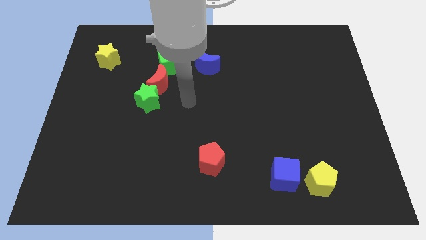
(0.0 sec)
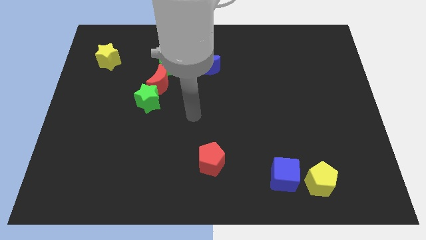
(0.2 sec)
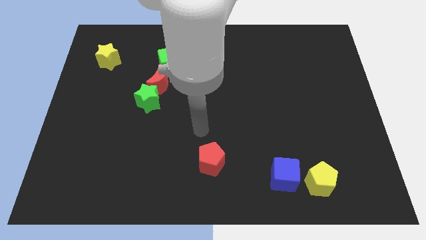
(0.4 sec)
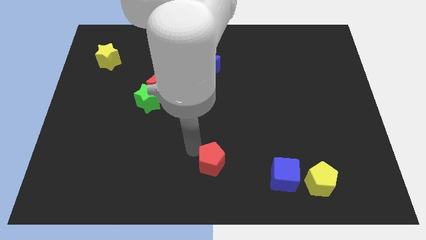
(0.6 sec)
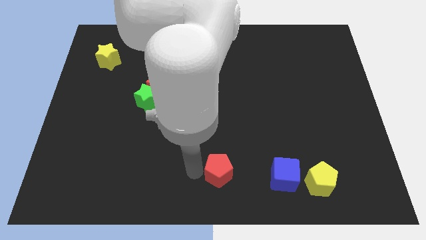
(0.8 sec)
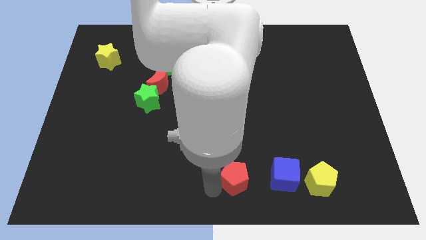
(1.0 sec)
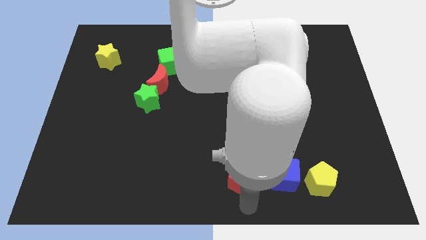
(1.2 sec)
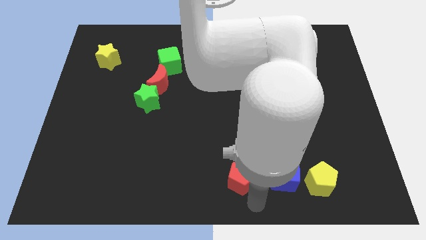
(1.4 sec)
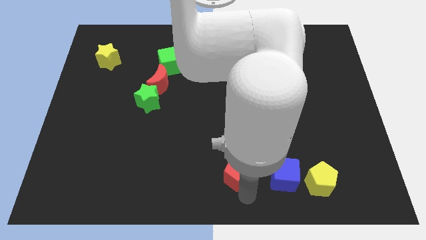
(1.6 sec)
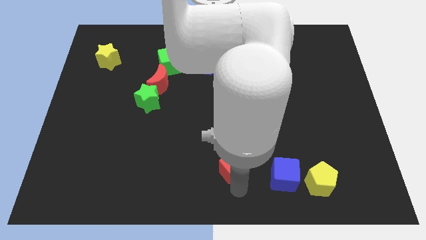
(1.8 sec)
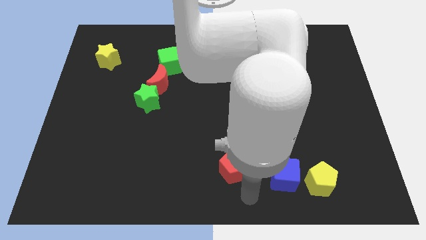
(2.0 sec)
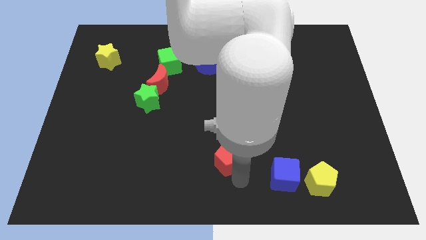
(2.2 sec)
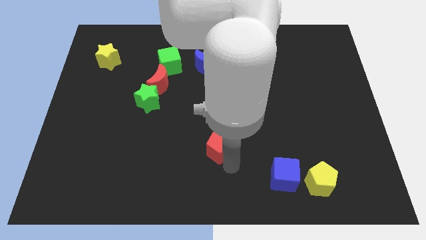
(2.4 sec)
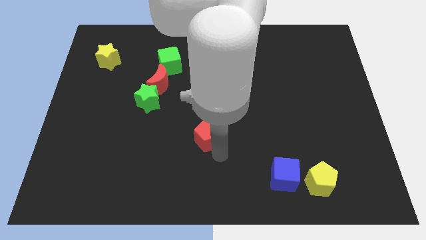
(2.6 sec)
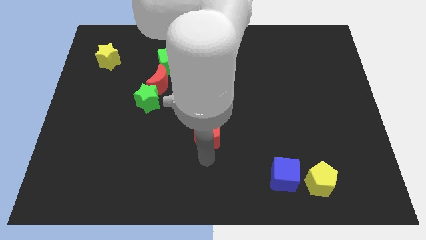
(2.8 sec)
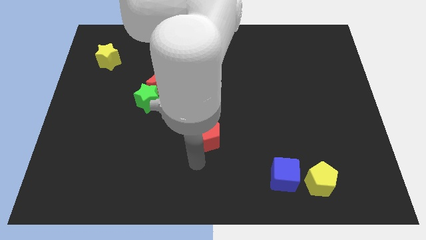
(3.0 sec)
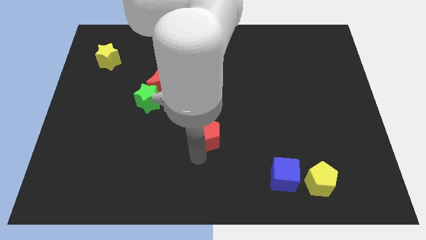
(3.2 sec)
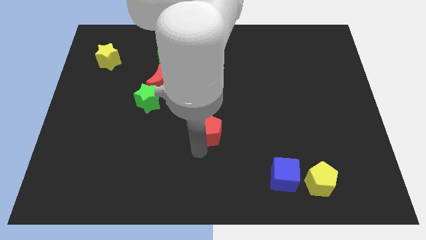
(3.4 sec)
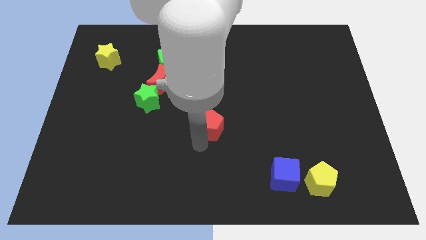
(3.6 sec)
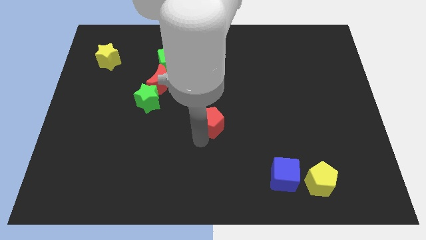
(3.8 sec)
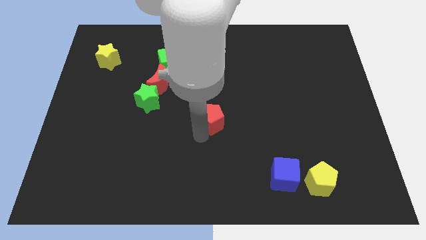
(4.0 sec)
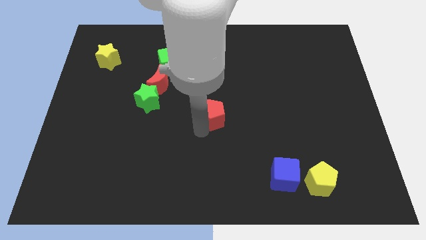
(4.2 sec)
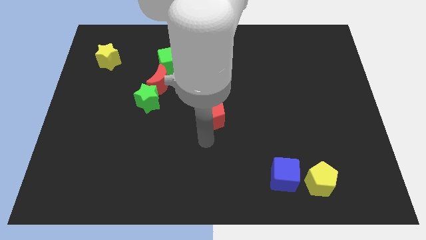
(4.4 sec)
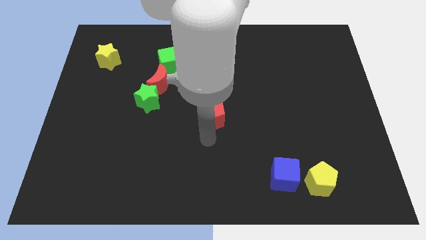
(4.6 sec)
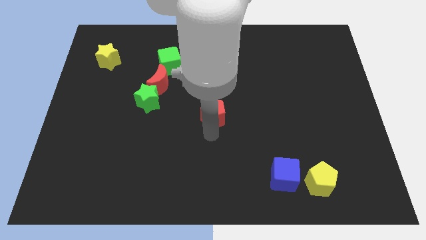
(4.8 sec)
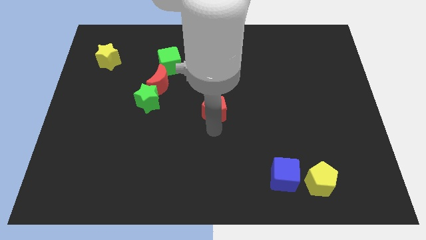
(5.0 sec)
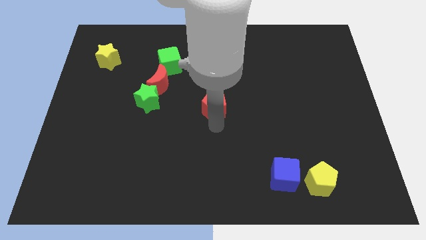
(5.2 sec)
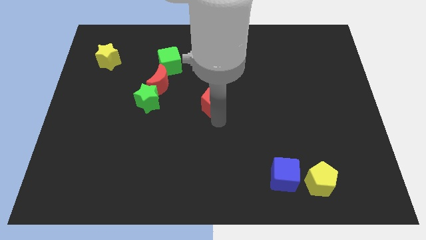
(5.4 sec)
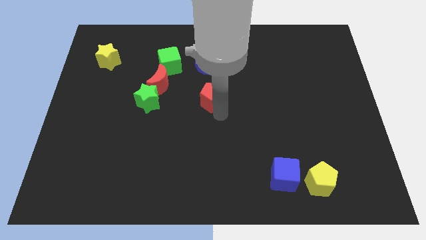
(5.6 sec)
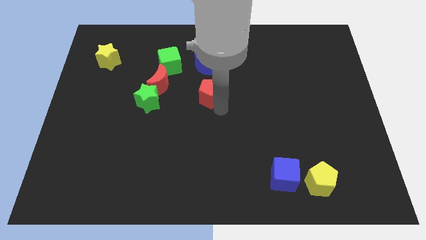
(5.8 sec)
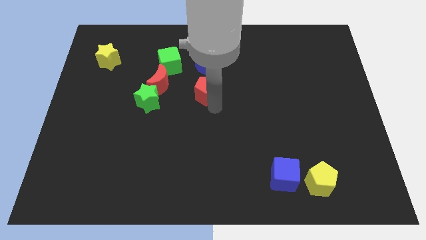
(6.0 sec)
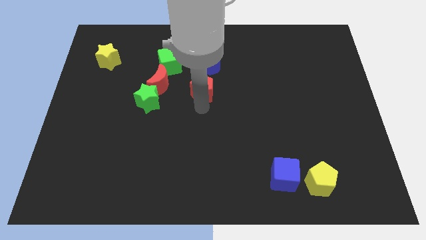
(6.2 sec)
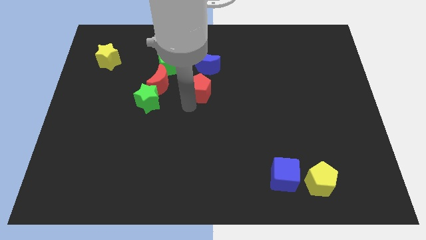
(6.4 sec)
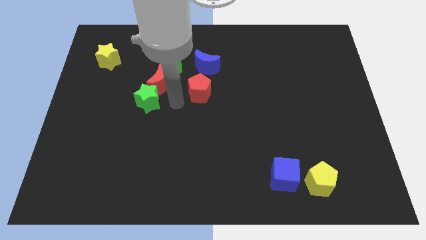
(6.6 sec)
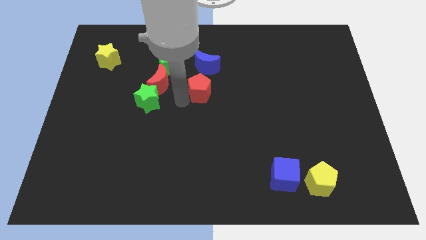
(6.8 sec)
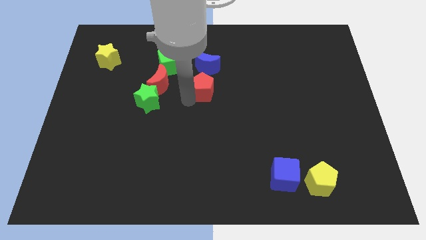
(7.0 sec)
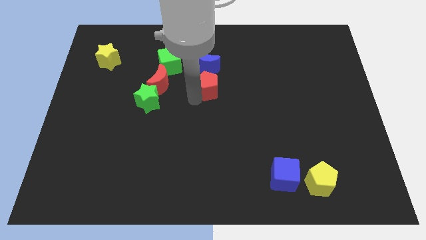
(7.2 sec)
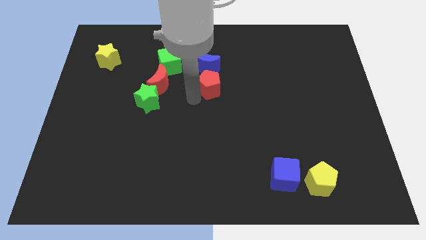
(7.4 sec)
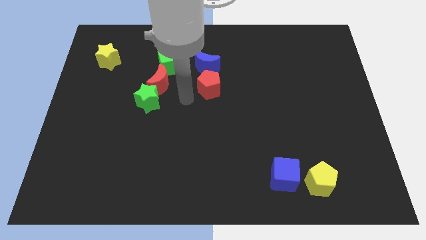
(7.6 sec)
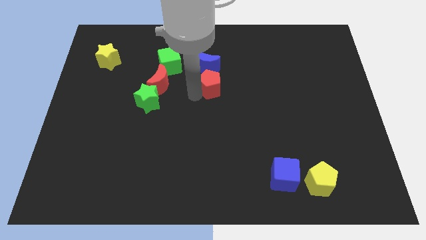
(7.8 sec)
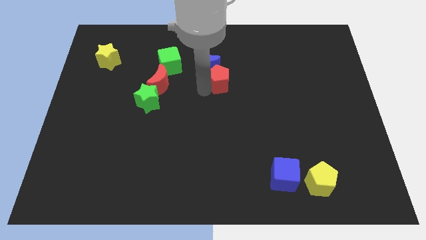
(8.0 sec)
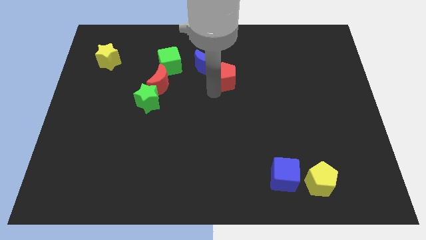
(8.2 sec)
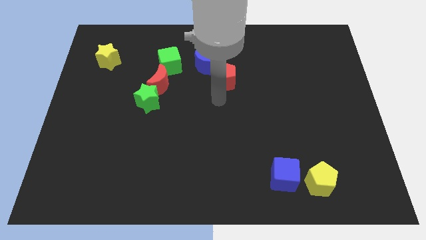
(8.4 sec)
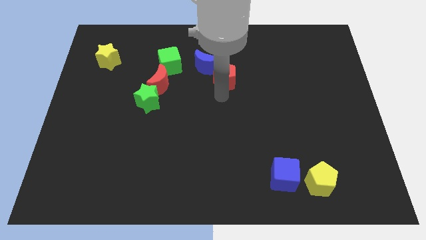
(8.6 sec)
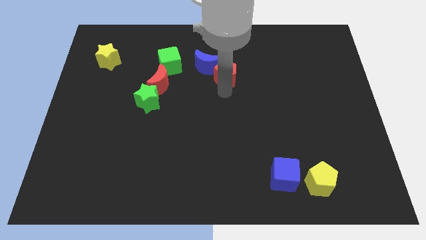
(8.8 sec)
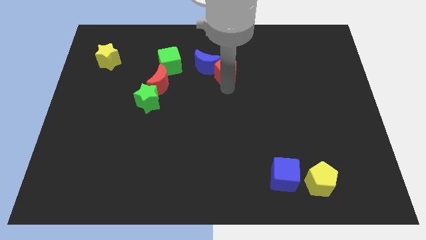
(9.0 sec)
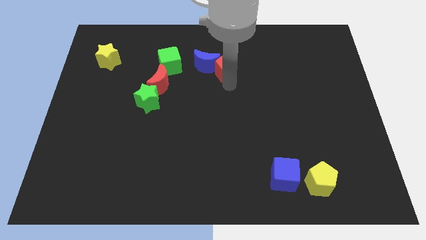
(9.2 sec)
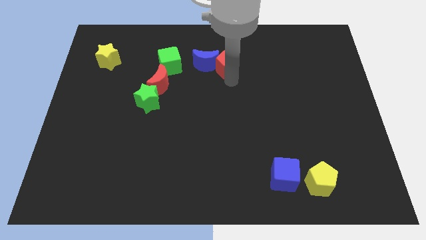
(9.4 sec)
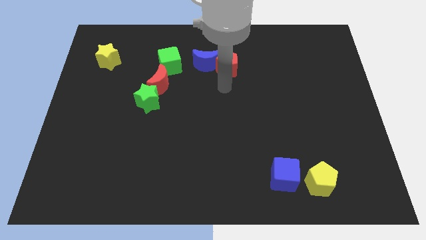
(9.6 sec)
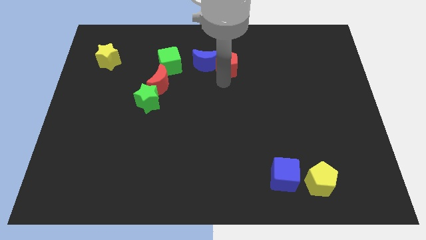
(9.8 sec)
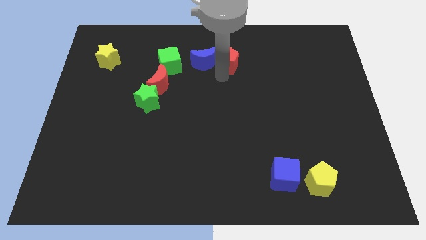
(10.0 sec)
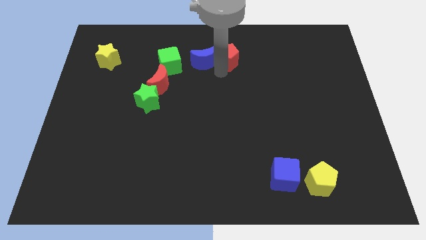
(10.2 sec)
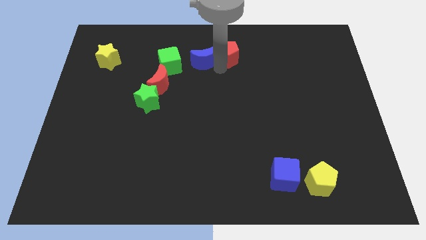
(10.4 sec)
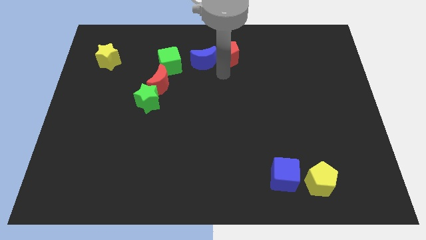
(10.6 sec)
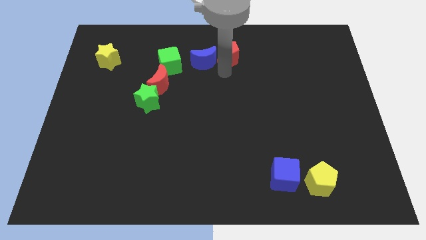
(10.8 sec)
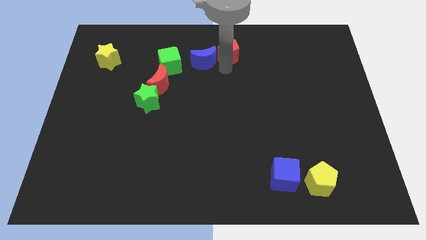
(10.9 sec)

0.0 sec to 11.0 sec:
slide the red pentagon to the top
